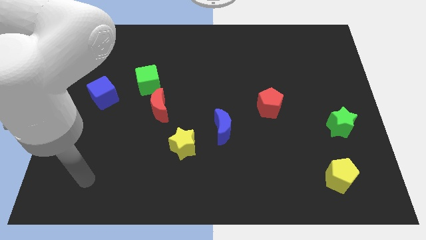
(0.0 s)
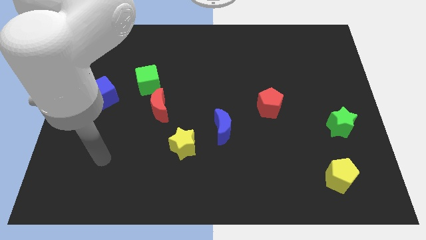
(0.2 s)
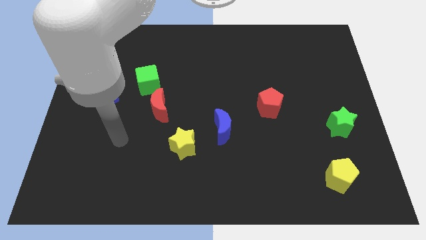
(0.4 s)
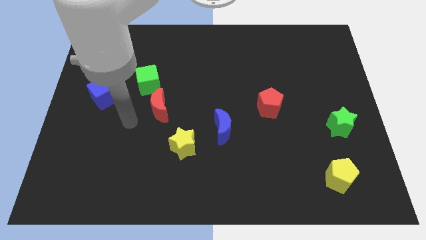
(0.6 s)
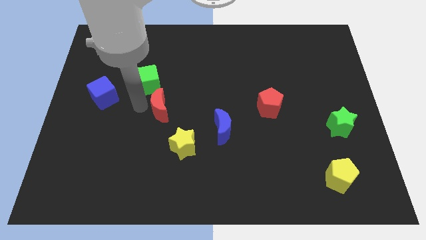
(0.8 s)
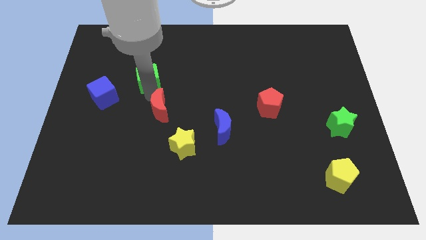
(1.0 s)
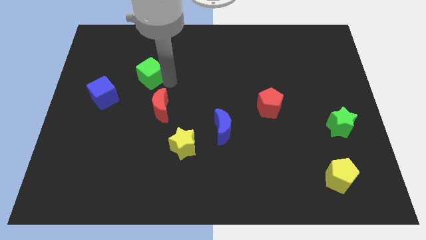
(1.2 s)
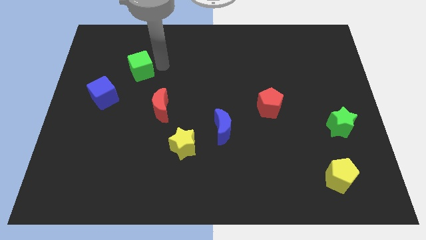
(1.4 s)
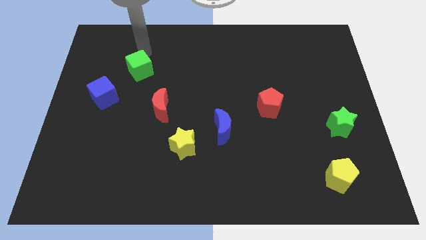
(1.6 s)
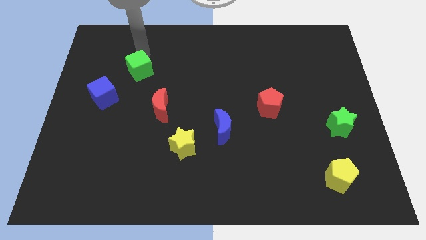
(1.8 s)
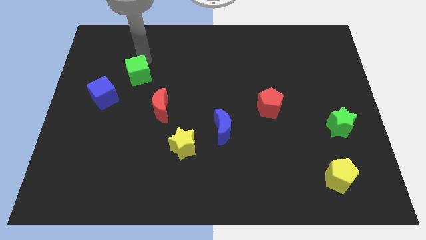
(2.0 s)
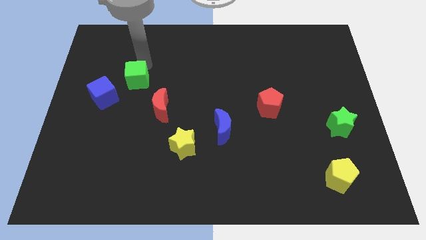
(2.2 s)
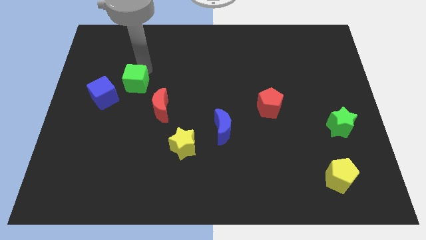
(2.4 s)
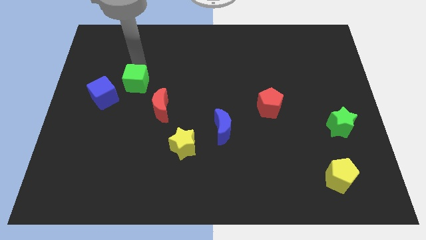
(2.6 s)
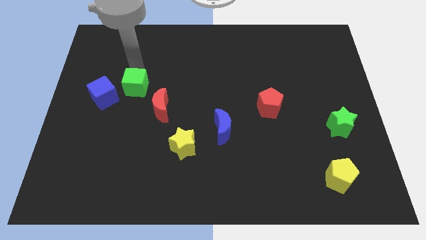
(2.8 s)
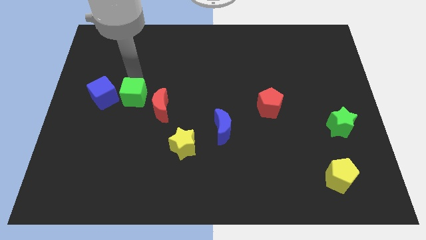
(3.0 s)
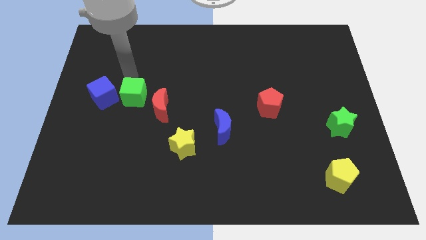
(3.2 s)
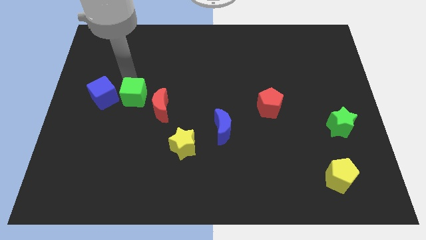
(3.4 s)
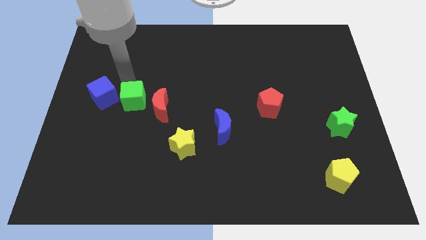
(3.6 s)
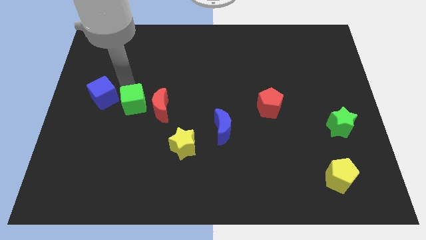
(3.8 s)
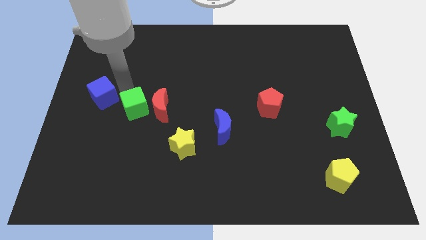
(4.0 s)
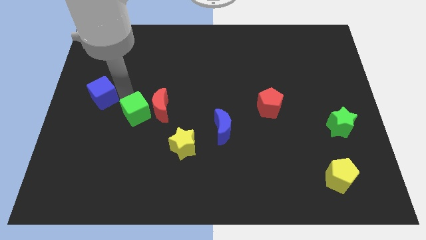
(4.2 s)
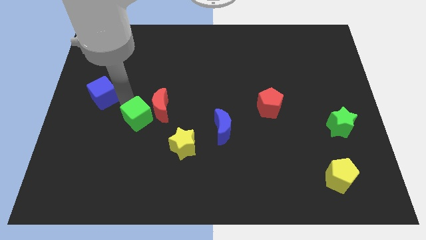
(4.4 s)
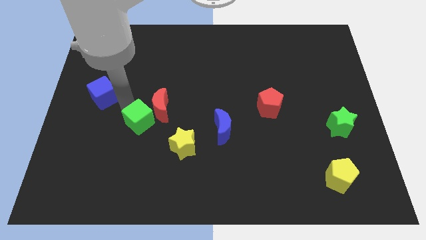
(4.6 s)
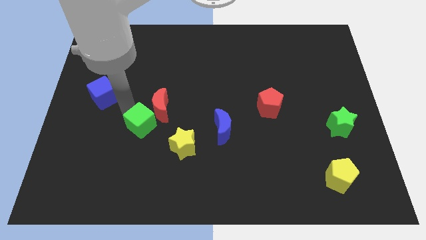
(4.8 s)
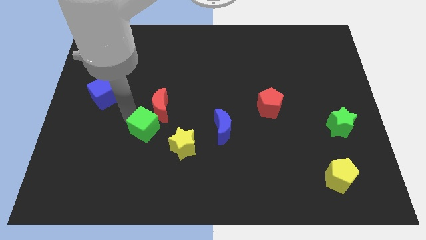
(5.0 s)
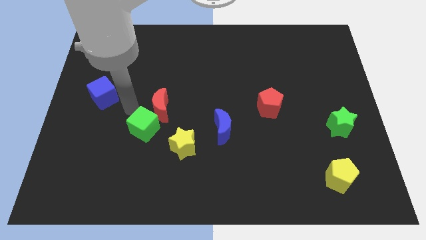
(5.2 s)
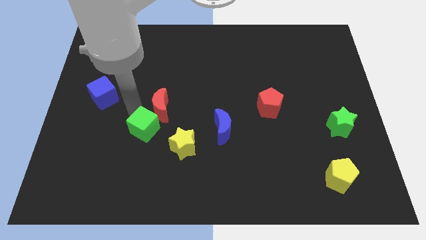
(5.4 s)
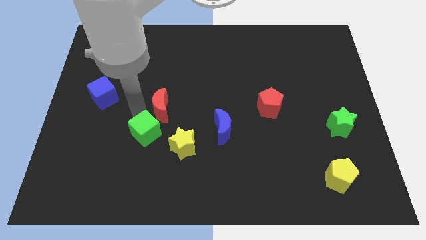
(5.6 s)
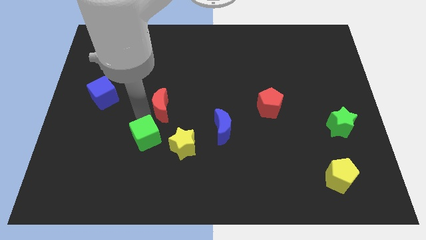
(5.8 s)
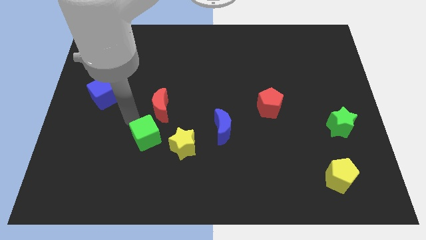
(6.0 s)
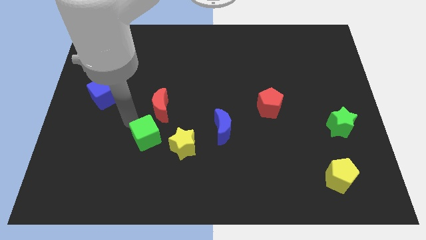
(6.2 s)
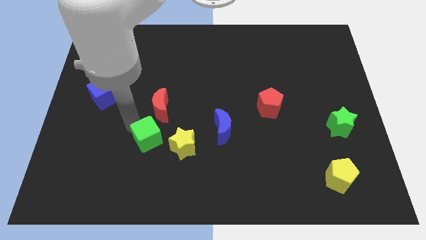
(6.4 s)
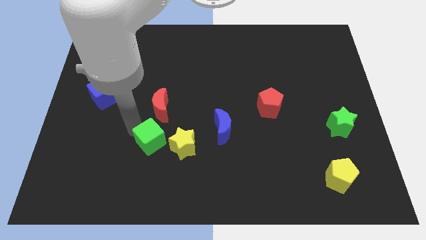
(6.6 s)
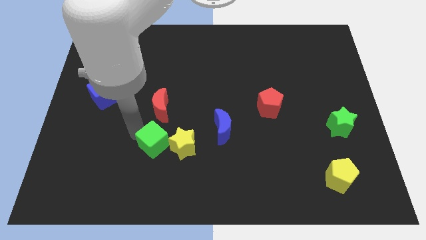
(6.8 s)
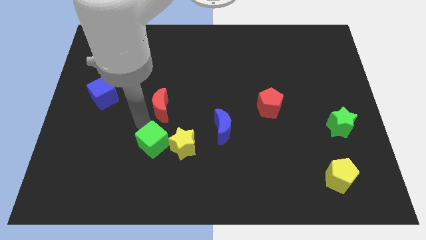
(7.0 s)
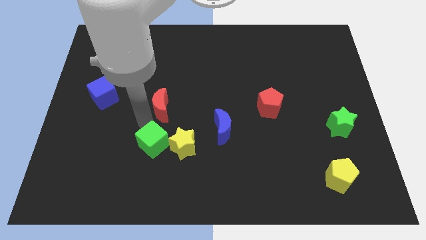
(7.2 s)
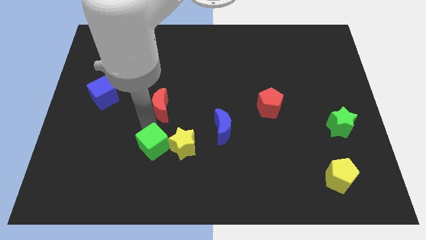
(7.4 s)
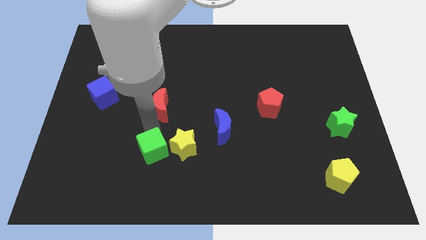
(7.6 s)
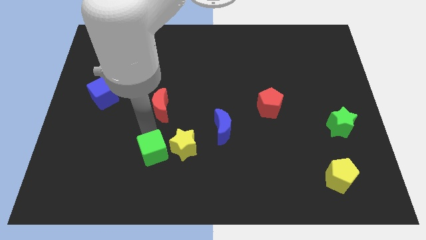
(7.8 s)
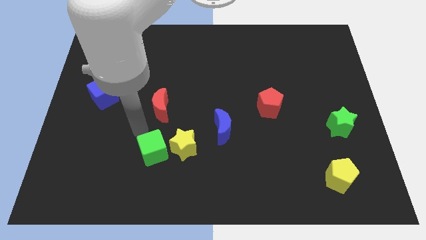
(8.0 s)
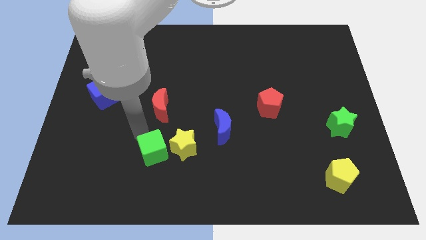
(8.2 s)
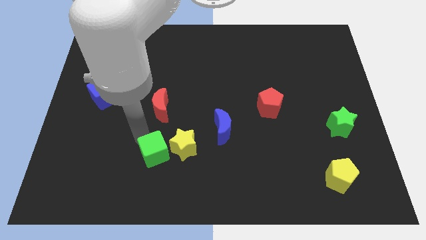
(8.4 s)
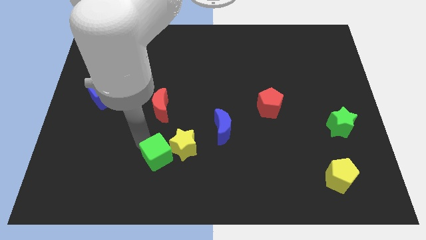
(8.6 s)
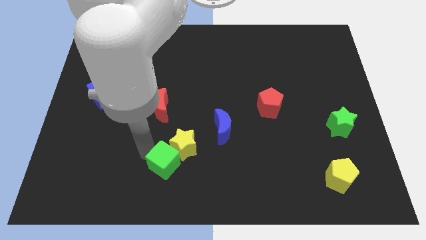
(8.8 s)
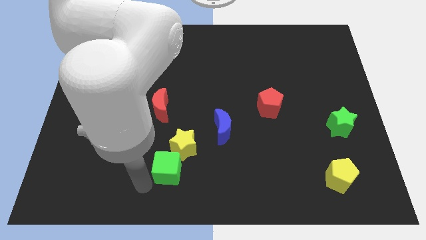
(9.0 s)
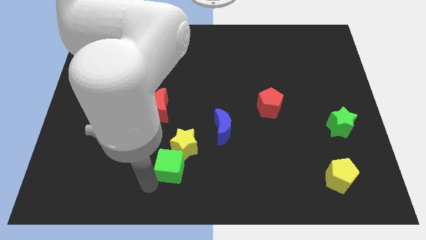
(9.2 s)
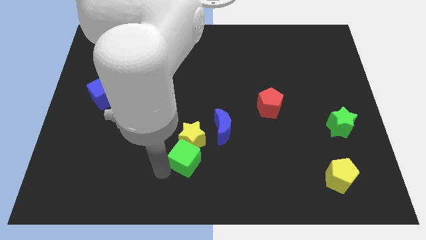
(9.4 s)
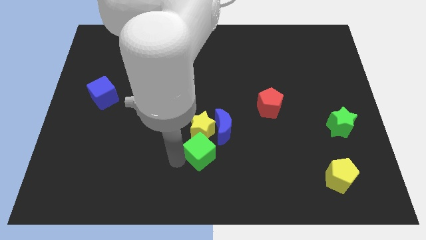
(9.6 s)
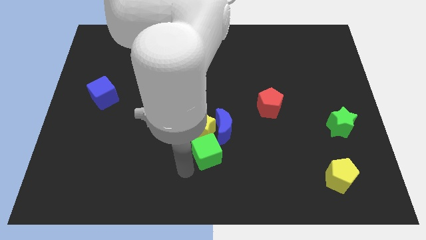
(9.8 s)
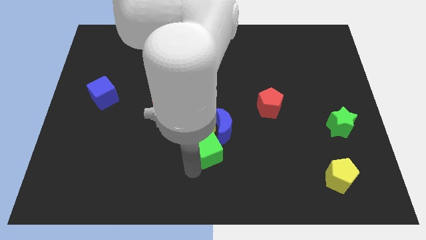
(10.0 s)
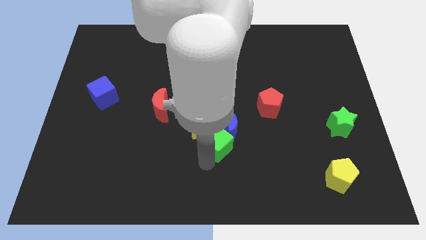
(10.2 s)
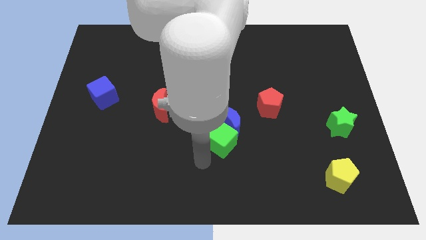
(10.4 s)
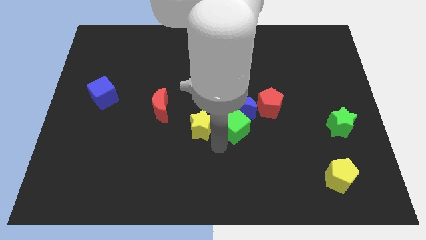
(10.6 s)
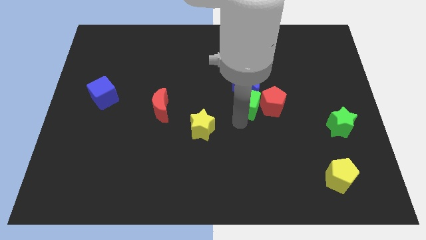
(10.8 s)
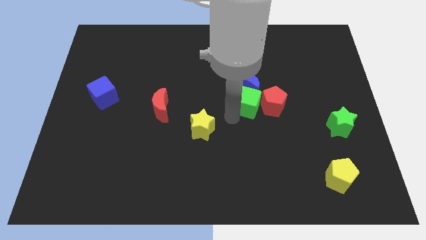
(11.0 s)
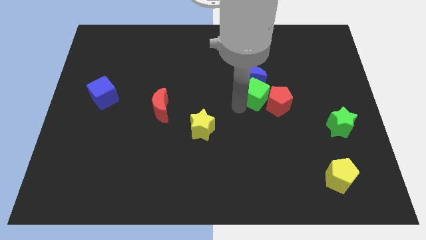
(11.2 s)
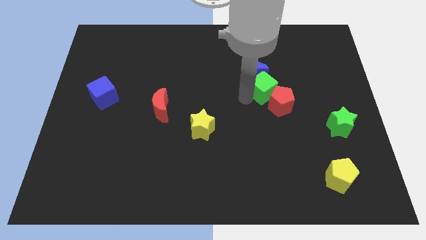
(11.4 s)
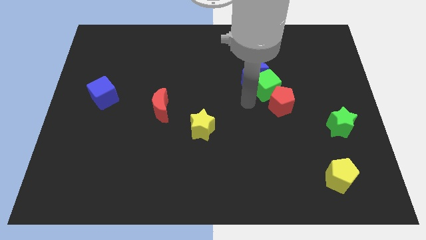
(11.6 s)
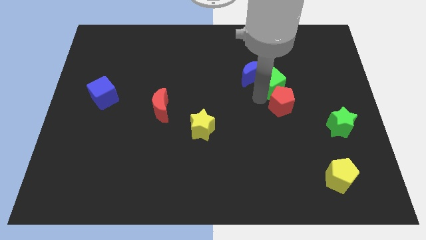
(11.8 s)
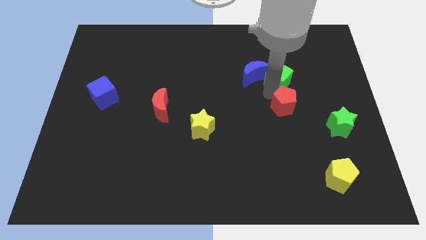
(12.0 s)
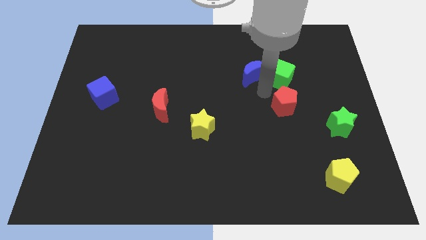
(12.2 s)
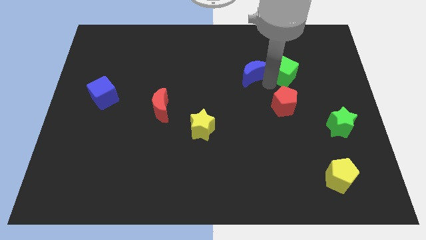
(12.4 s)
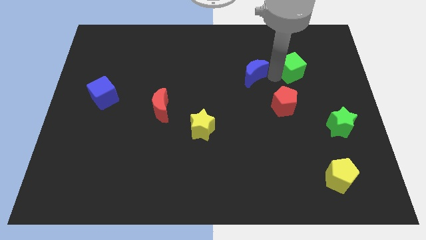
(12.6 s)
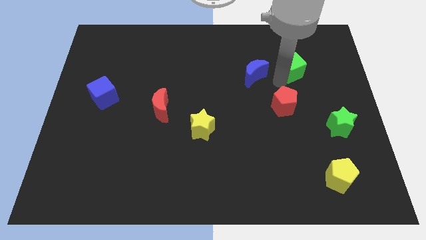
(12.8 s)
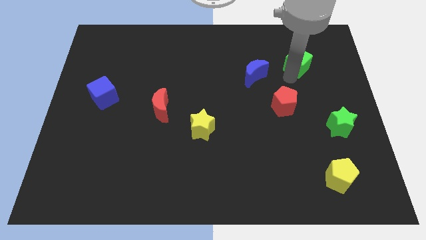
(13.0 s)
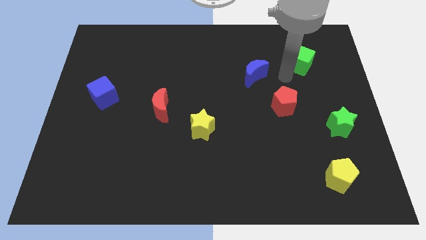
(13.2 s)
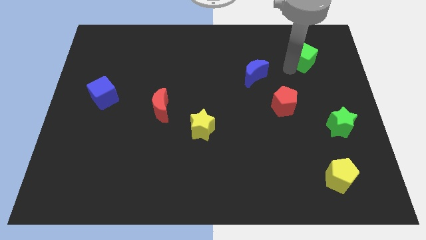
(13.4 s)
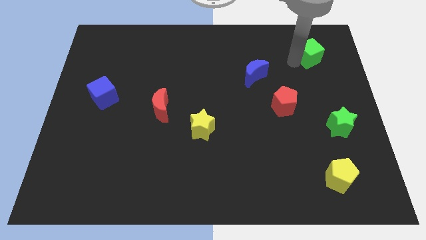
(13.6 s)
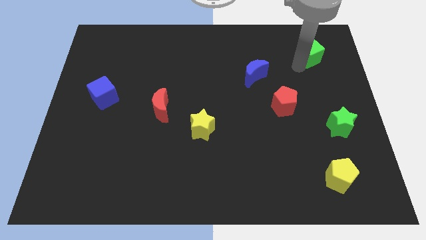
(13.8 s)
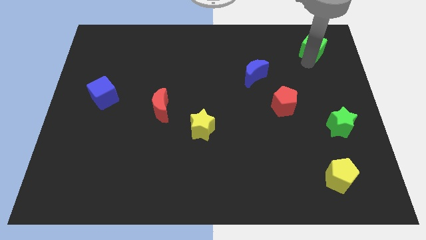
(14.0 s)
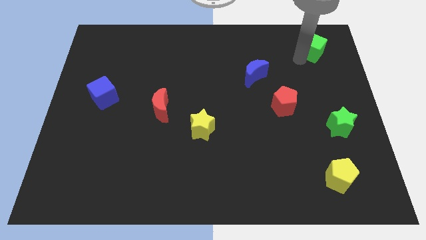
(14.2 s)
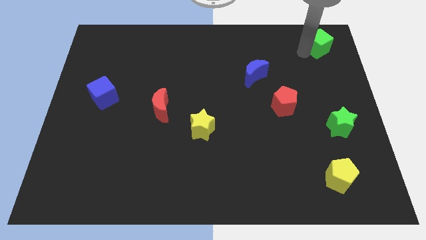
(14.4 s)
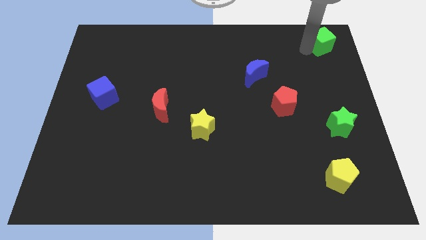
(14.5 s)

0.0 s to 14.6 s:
put the green cube to the top right
